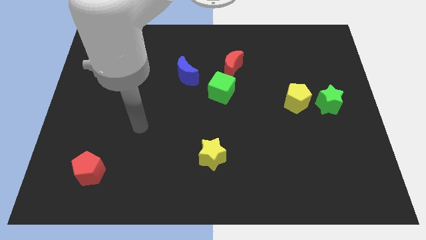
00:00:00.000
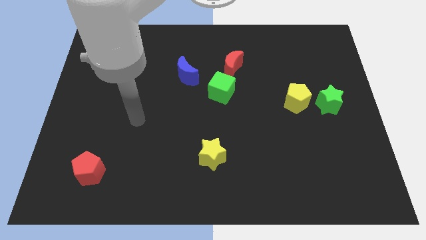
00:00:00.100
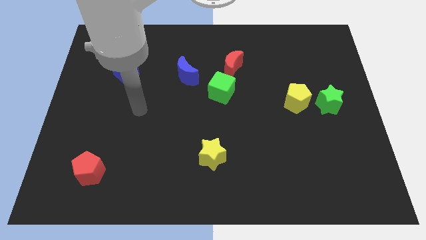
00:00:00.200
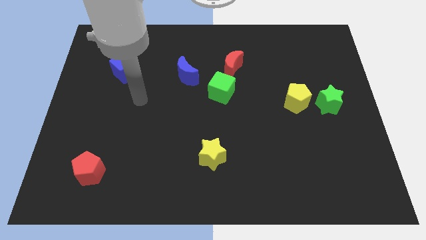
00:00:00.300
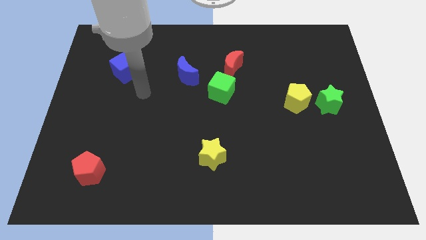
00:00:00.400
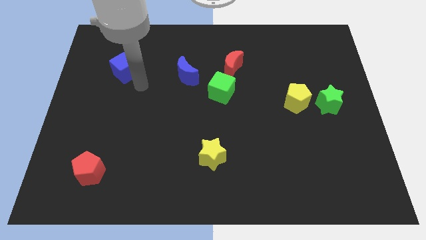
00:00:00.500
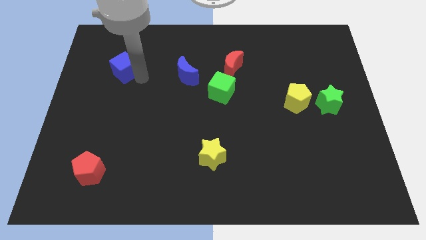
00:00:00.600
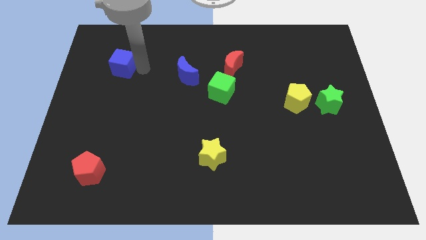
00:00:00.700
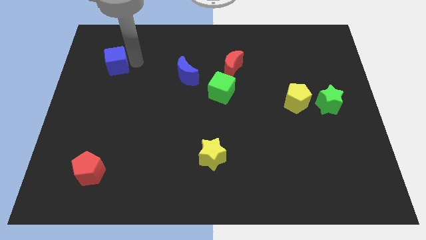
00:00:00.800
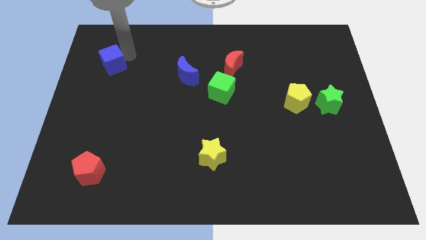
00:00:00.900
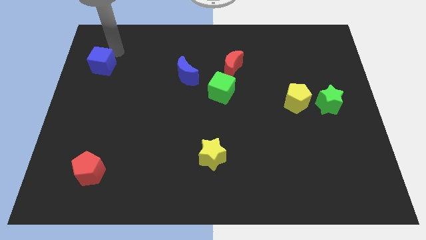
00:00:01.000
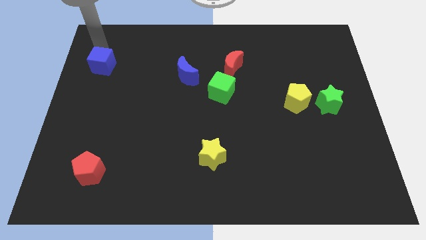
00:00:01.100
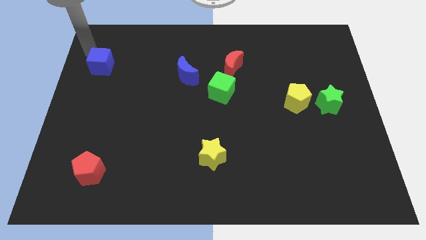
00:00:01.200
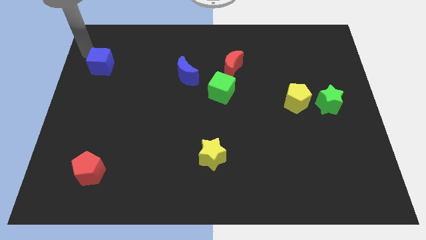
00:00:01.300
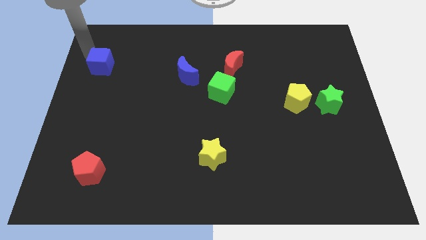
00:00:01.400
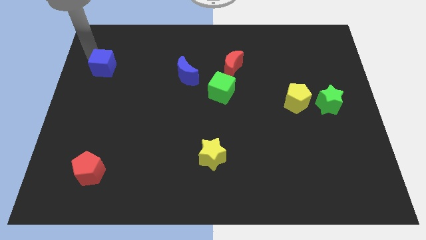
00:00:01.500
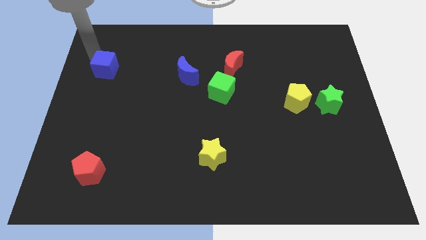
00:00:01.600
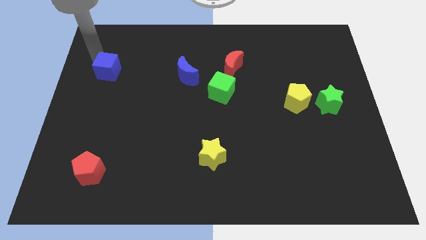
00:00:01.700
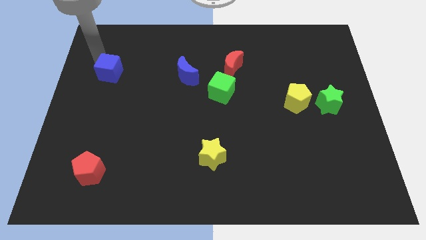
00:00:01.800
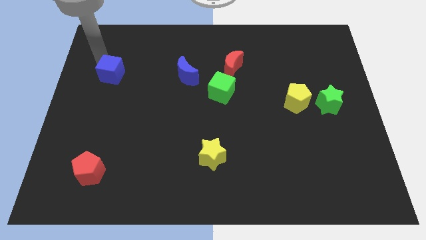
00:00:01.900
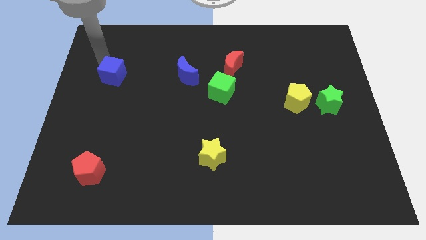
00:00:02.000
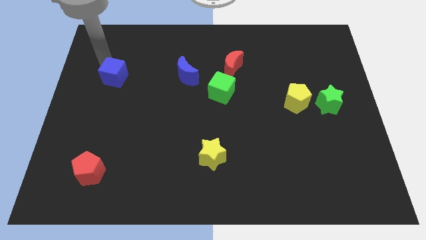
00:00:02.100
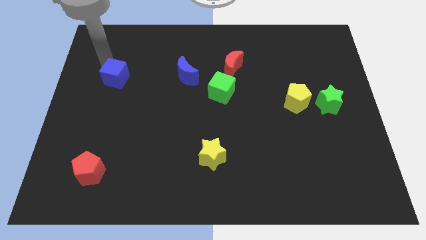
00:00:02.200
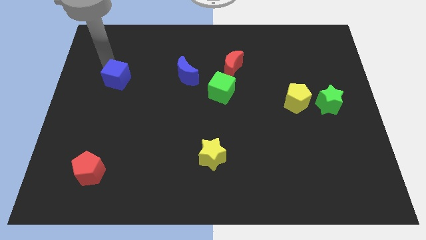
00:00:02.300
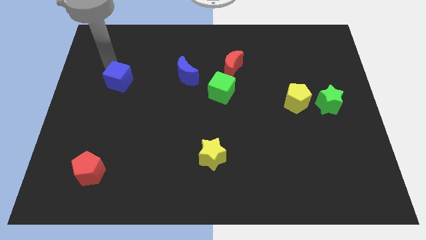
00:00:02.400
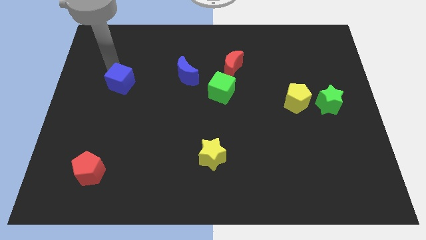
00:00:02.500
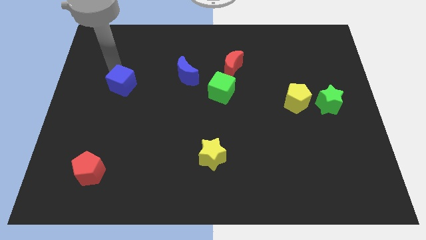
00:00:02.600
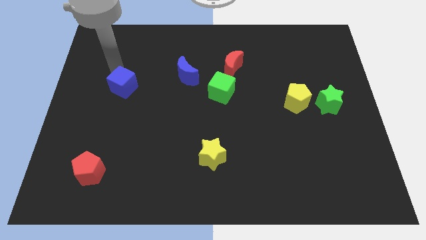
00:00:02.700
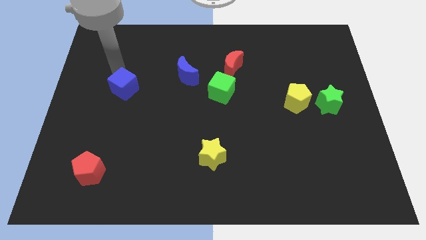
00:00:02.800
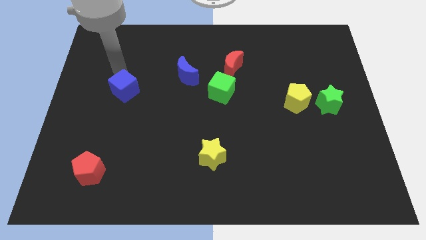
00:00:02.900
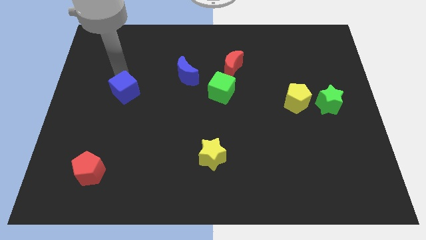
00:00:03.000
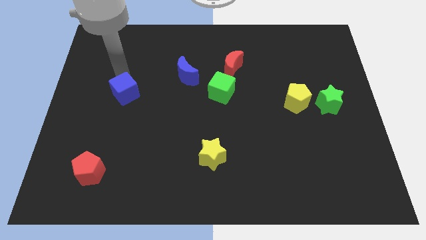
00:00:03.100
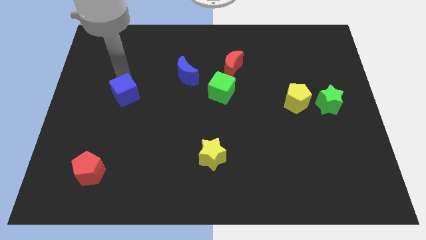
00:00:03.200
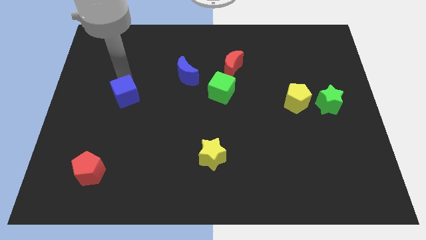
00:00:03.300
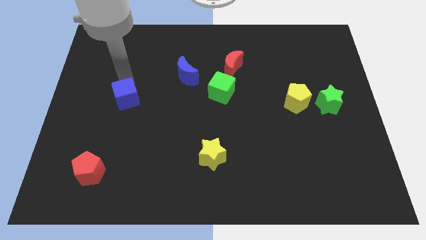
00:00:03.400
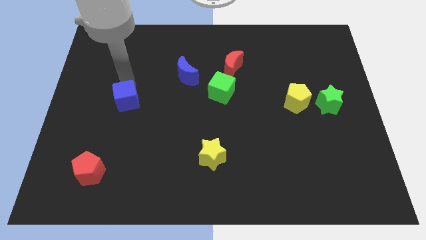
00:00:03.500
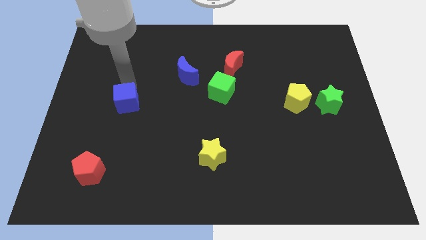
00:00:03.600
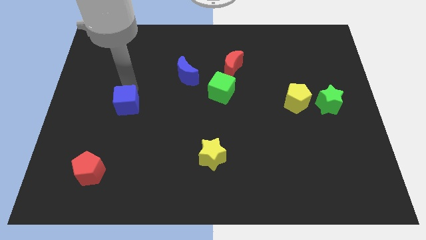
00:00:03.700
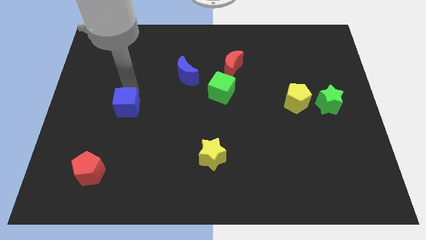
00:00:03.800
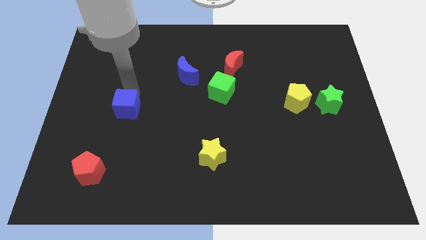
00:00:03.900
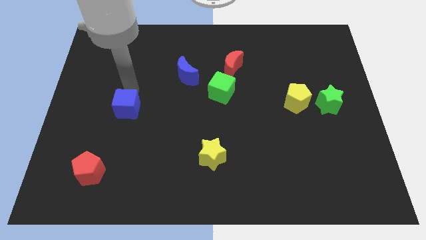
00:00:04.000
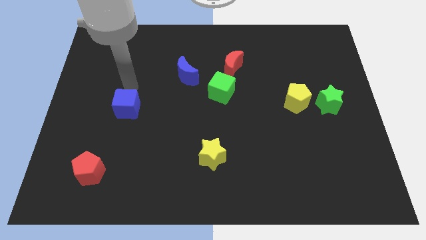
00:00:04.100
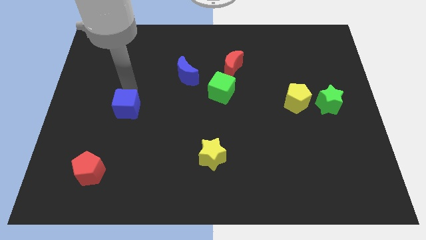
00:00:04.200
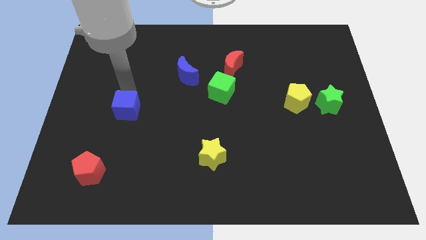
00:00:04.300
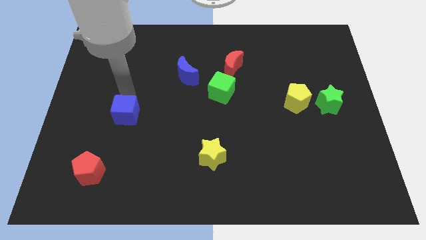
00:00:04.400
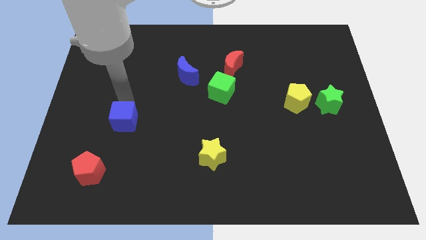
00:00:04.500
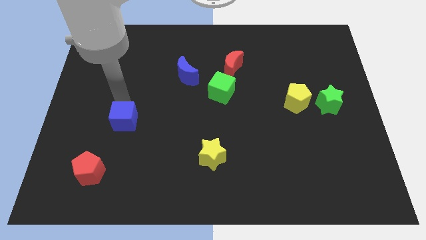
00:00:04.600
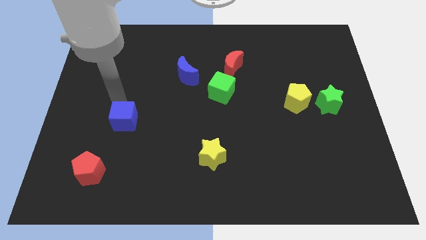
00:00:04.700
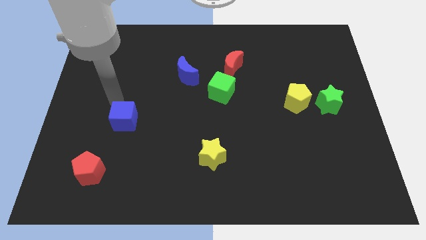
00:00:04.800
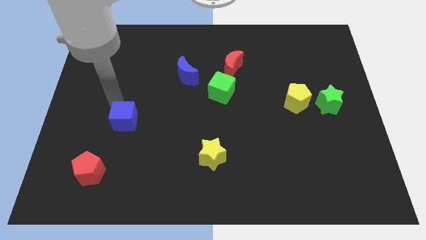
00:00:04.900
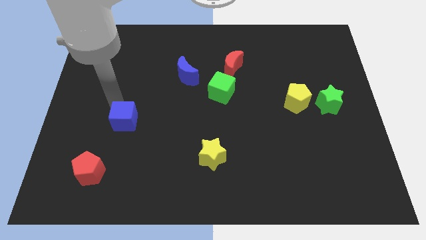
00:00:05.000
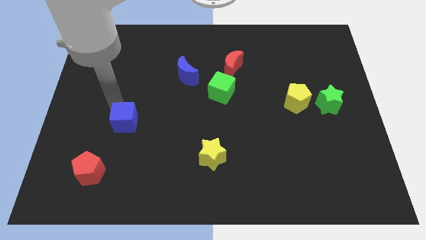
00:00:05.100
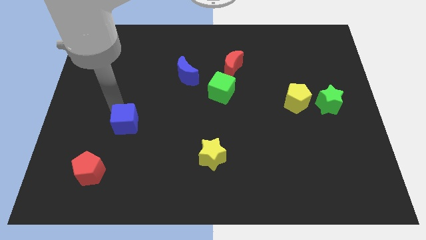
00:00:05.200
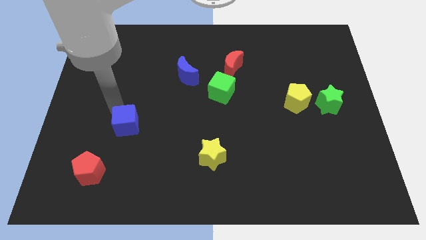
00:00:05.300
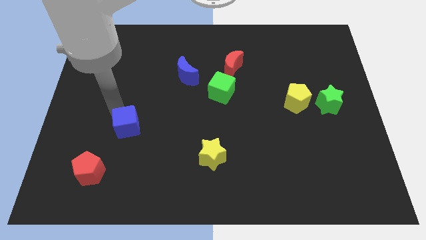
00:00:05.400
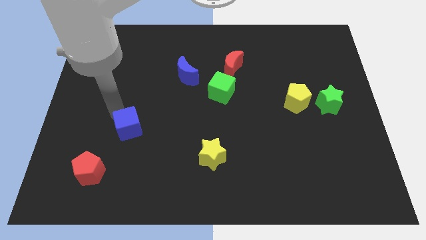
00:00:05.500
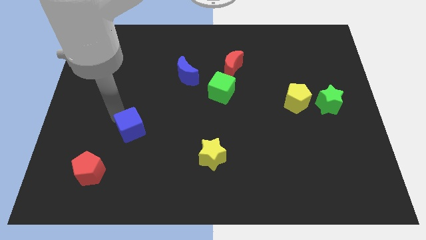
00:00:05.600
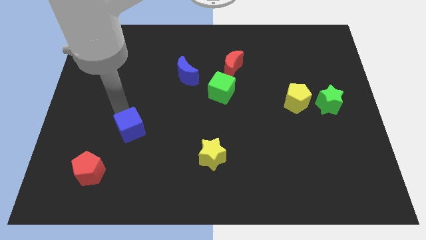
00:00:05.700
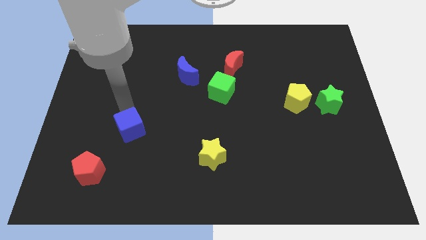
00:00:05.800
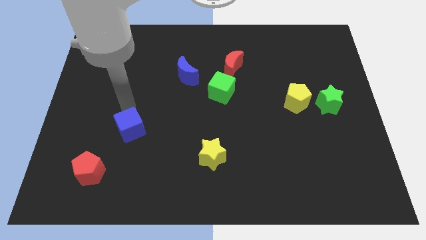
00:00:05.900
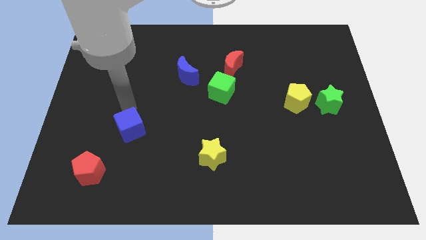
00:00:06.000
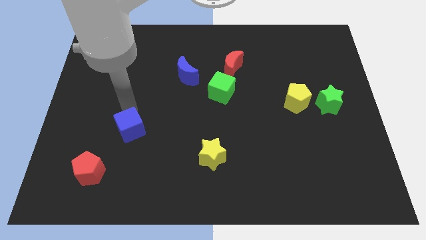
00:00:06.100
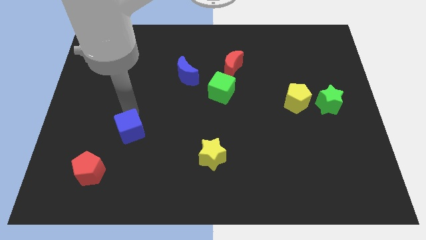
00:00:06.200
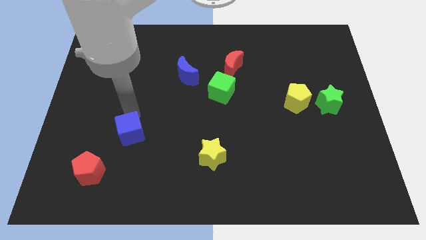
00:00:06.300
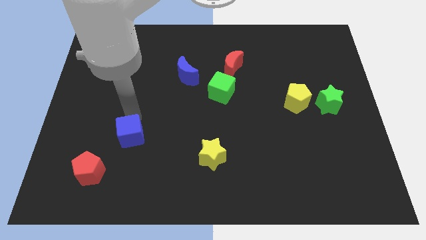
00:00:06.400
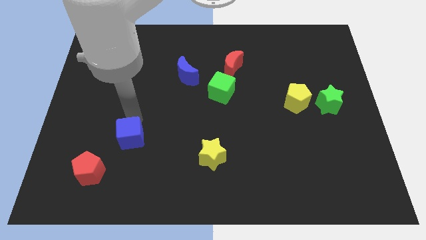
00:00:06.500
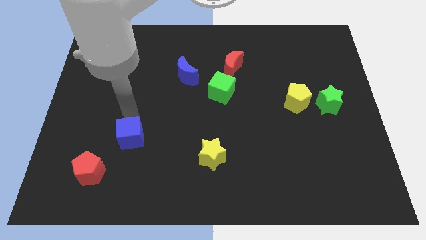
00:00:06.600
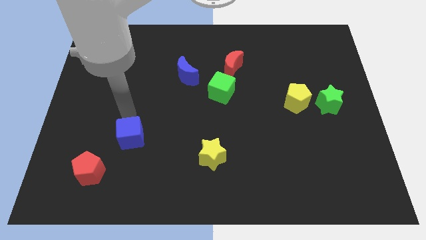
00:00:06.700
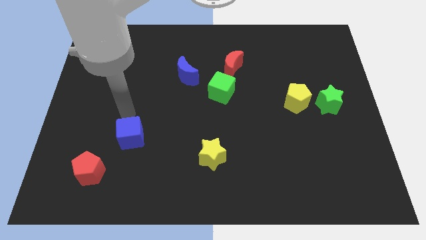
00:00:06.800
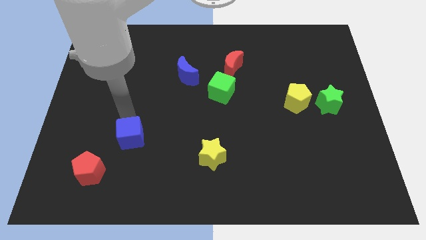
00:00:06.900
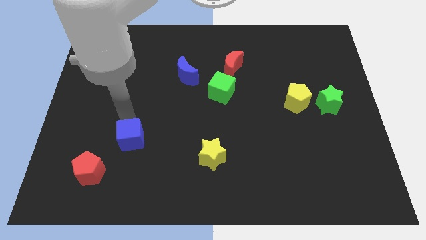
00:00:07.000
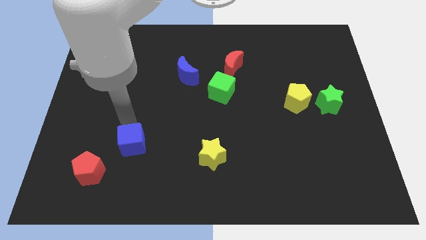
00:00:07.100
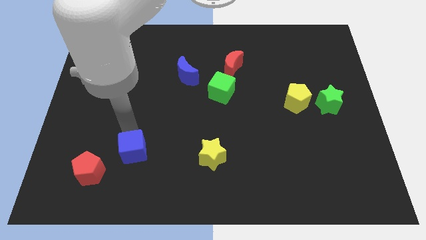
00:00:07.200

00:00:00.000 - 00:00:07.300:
put the blue cube to the right side of the red pentagon

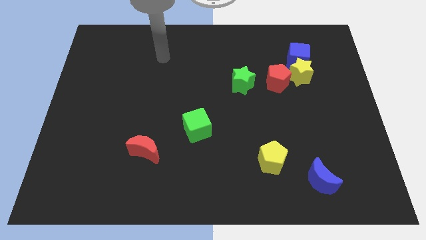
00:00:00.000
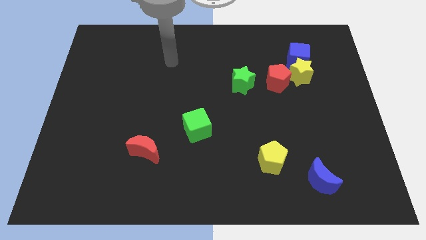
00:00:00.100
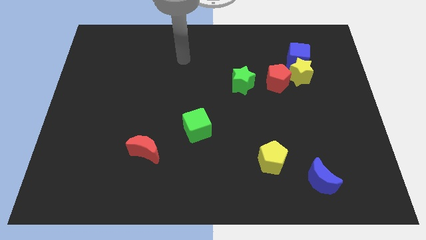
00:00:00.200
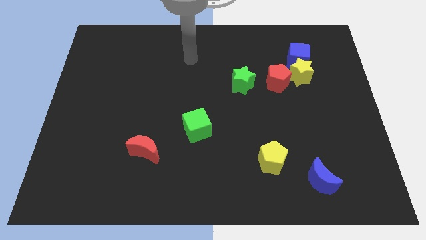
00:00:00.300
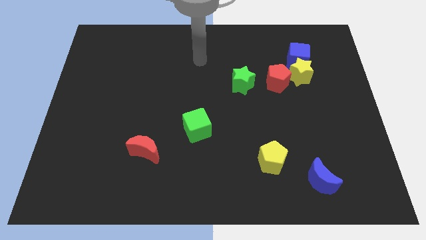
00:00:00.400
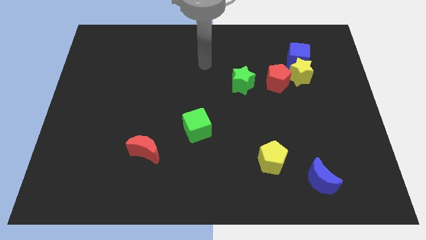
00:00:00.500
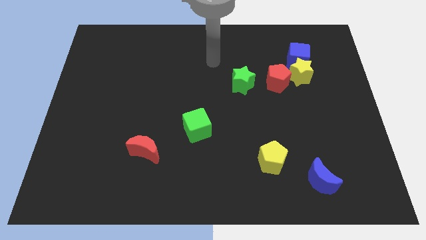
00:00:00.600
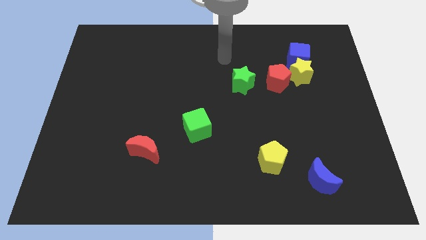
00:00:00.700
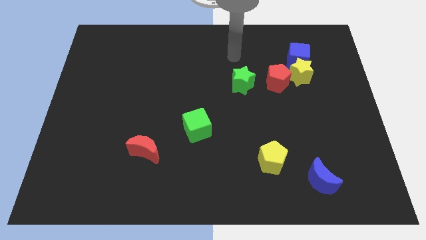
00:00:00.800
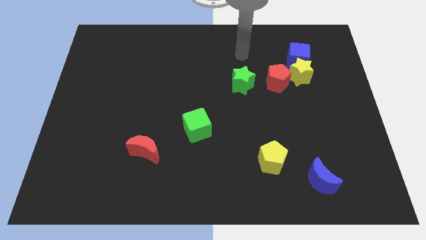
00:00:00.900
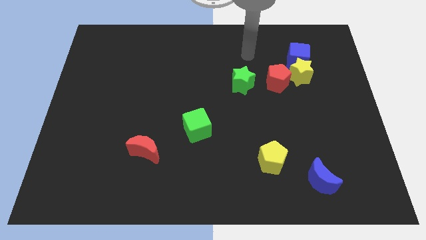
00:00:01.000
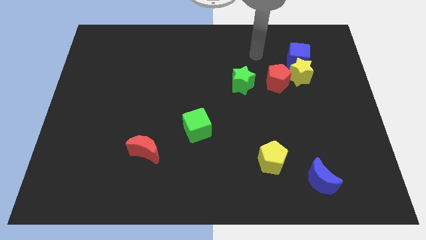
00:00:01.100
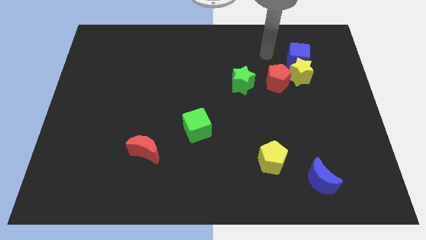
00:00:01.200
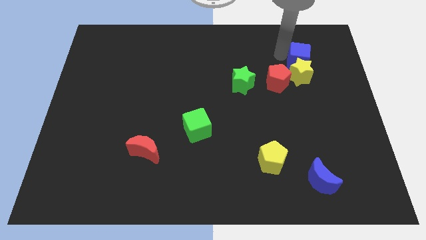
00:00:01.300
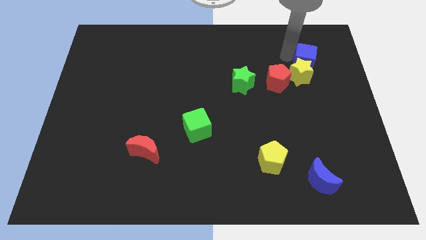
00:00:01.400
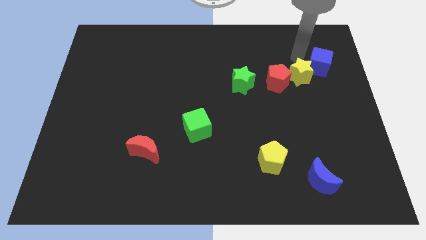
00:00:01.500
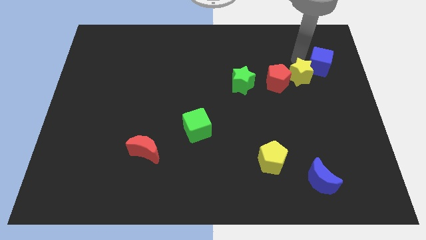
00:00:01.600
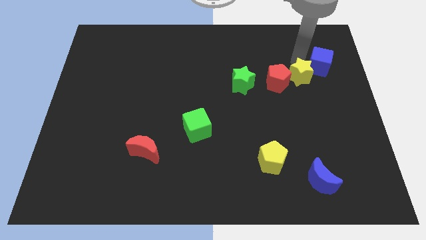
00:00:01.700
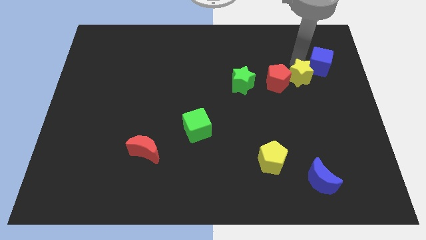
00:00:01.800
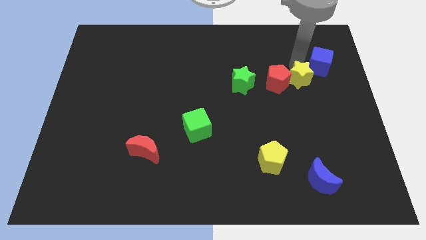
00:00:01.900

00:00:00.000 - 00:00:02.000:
slide the yellow star to the bottom right of the red pentagon
